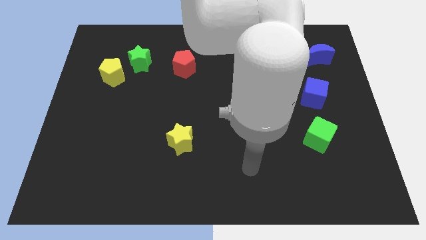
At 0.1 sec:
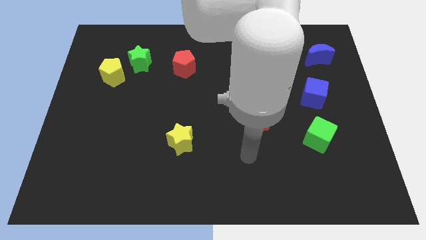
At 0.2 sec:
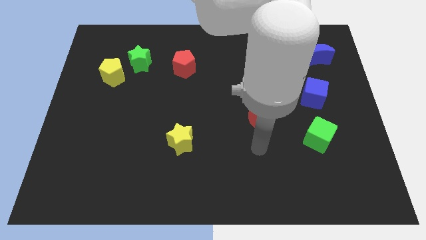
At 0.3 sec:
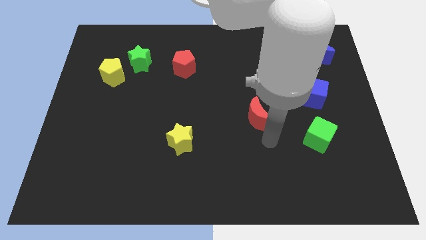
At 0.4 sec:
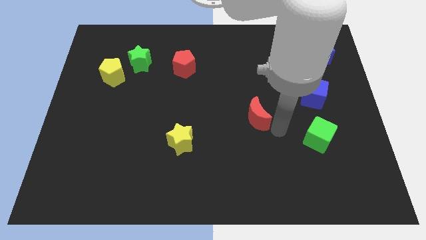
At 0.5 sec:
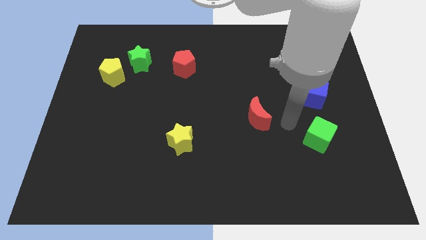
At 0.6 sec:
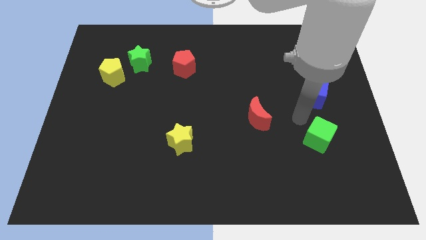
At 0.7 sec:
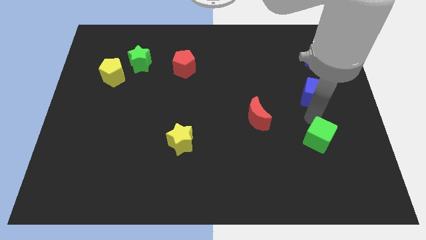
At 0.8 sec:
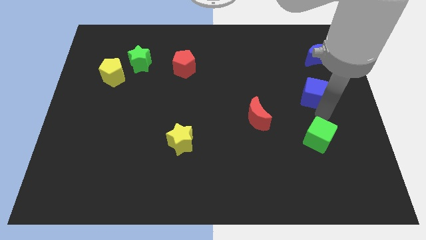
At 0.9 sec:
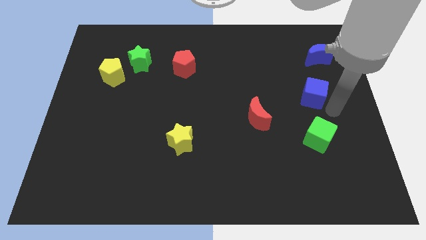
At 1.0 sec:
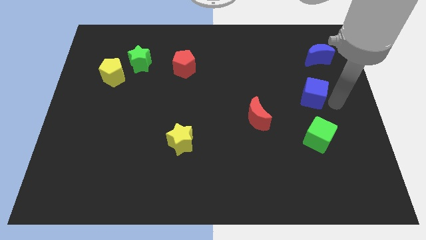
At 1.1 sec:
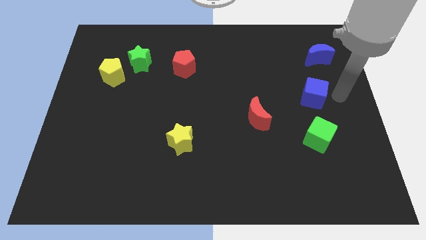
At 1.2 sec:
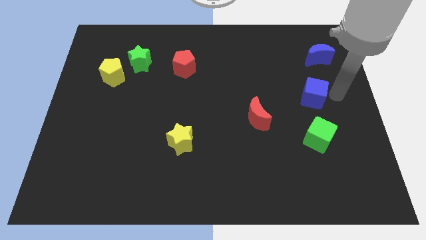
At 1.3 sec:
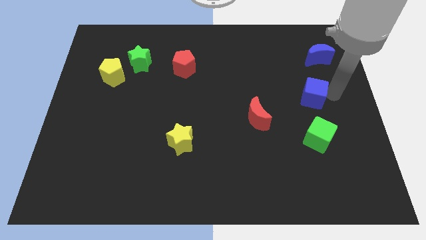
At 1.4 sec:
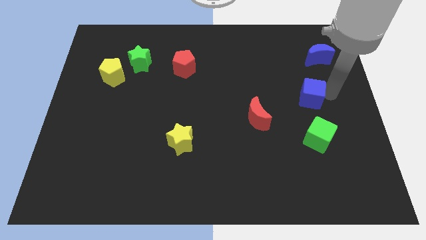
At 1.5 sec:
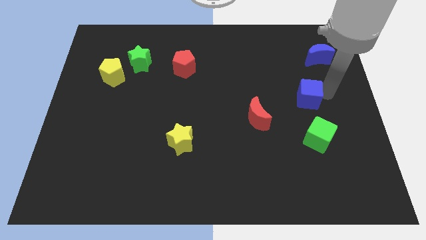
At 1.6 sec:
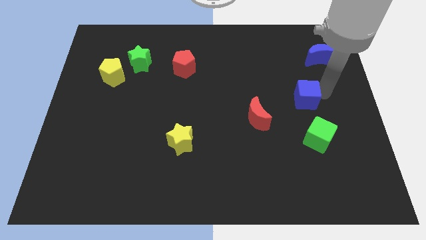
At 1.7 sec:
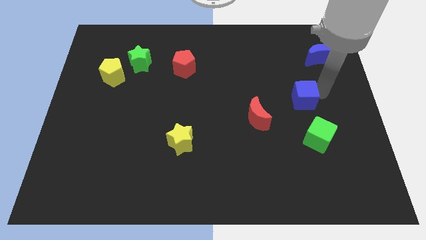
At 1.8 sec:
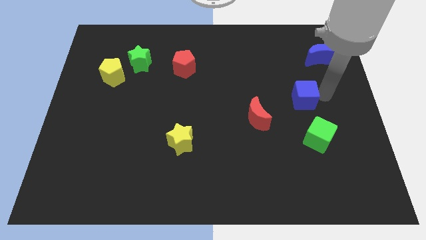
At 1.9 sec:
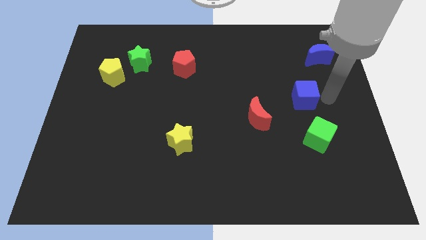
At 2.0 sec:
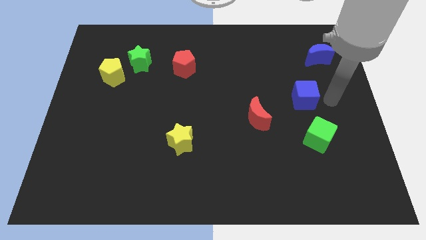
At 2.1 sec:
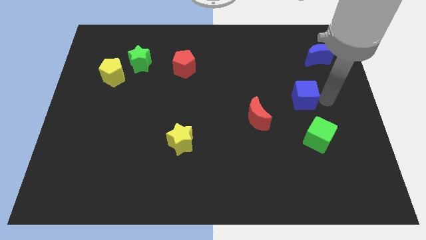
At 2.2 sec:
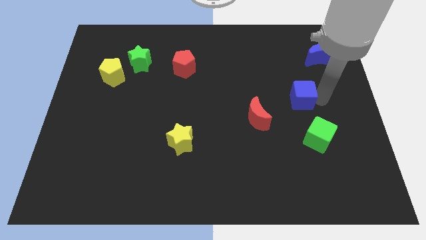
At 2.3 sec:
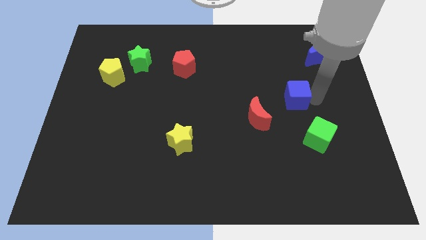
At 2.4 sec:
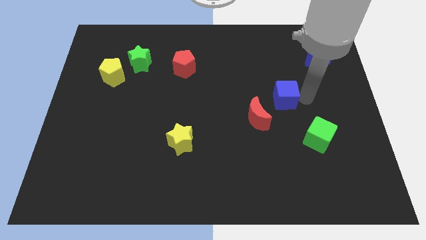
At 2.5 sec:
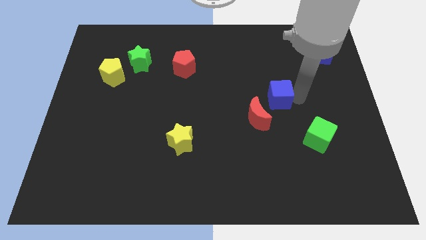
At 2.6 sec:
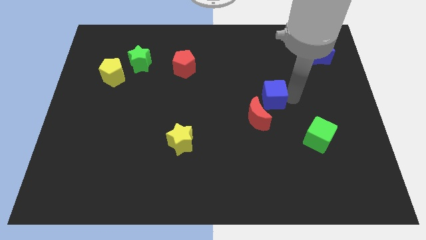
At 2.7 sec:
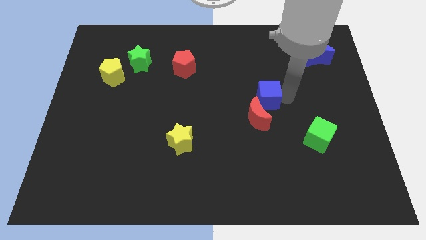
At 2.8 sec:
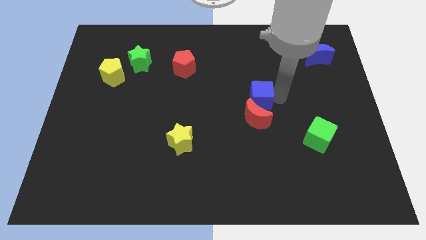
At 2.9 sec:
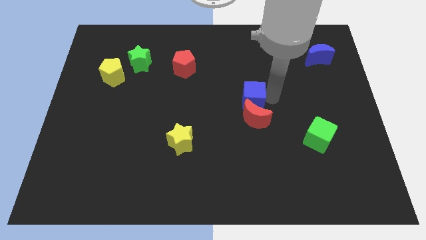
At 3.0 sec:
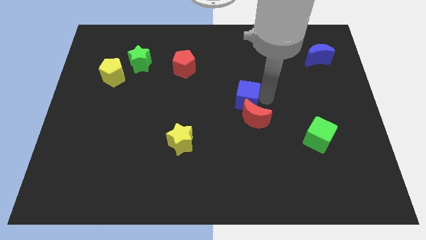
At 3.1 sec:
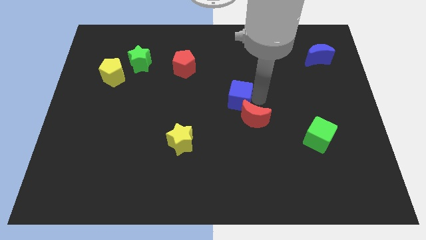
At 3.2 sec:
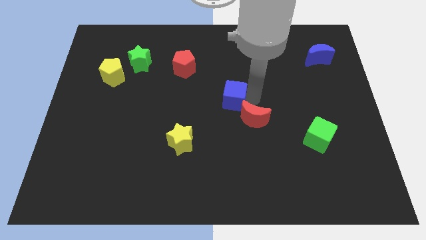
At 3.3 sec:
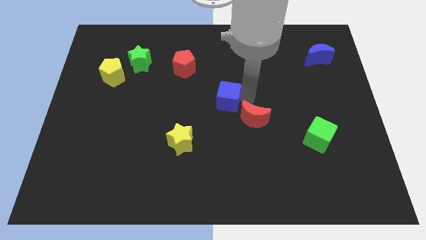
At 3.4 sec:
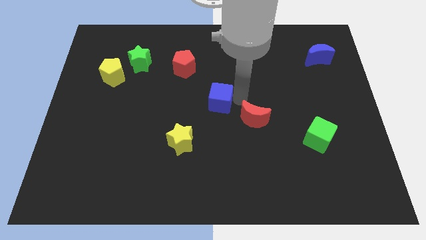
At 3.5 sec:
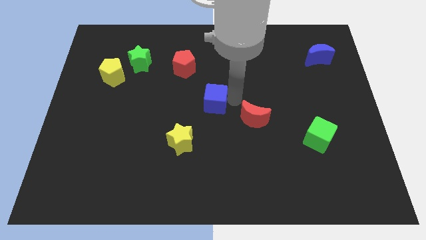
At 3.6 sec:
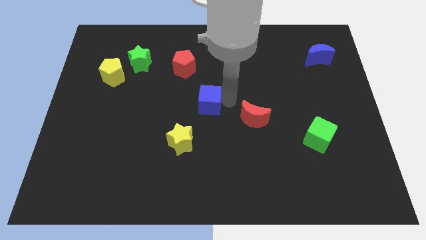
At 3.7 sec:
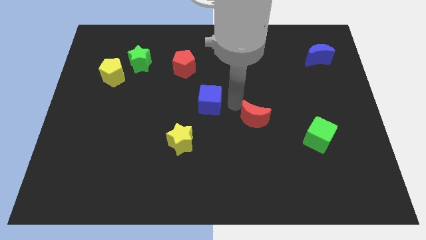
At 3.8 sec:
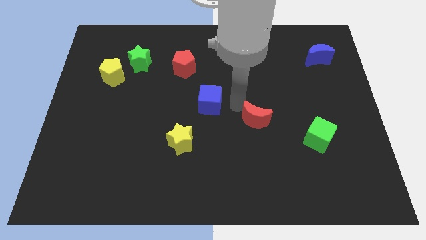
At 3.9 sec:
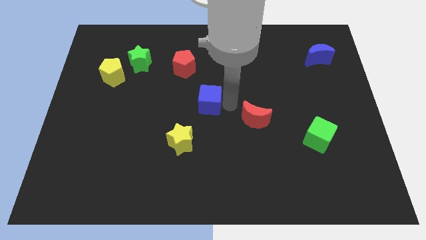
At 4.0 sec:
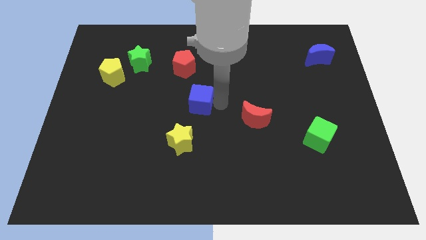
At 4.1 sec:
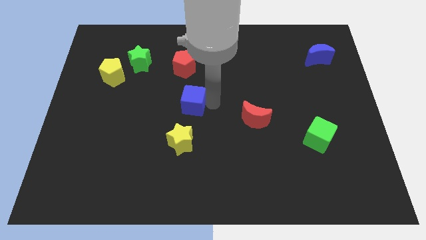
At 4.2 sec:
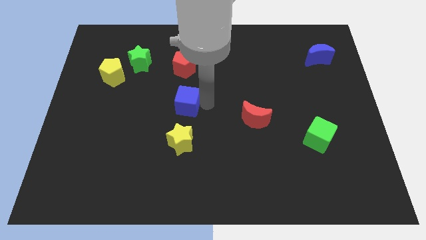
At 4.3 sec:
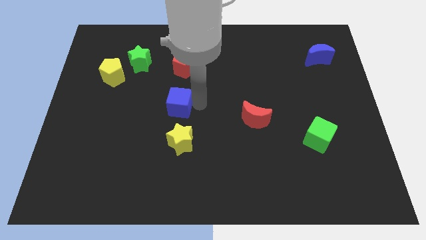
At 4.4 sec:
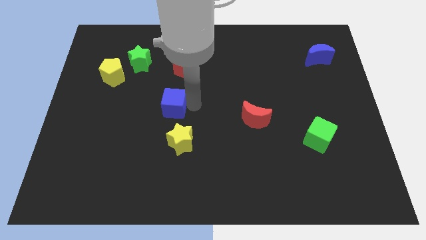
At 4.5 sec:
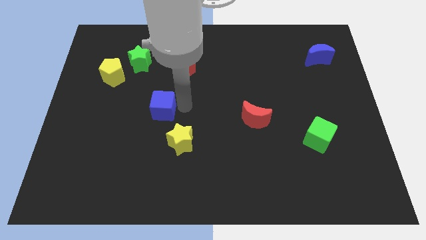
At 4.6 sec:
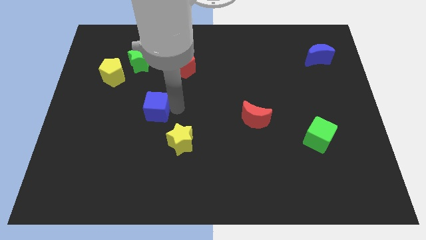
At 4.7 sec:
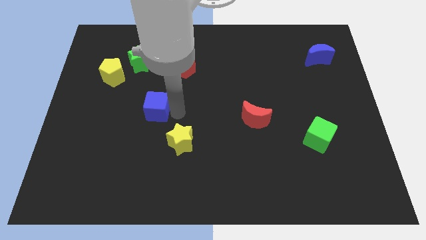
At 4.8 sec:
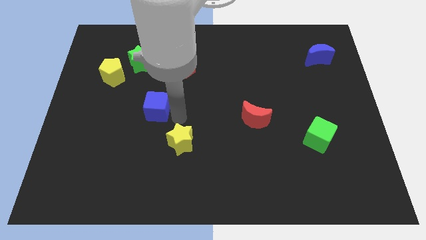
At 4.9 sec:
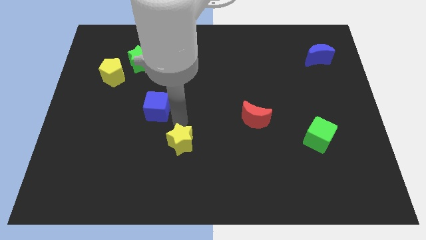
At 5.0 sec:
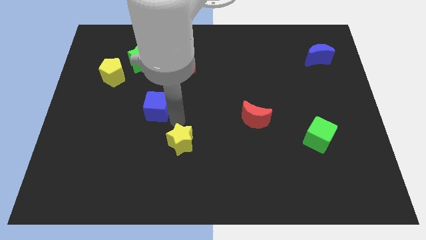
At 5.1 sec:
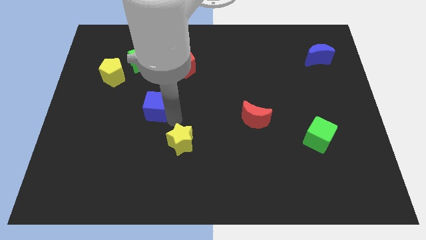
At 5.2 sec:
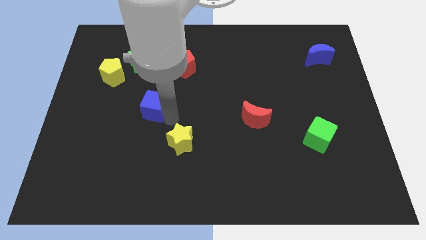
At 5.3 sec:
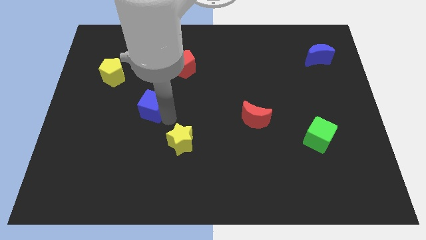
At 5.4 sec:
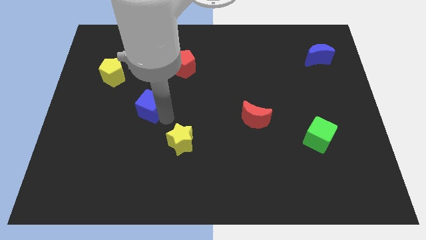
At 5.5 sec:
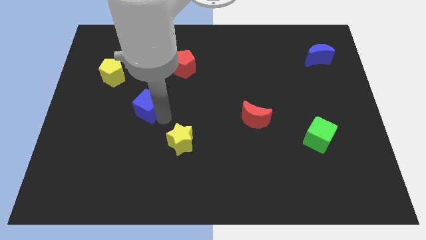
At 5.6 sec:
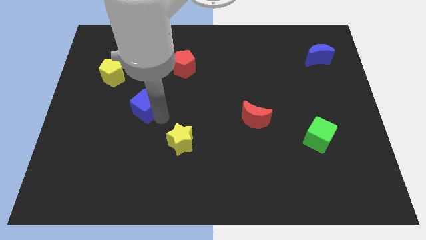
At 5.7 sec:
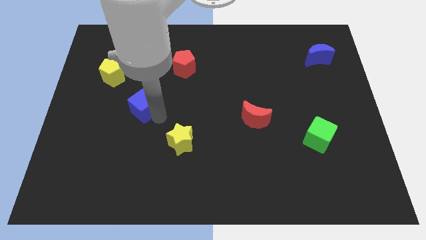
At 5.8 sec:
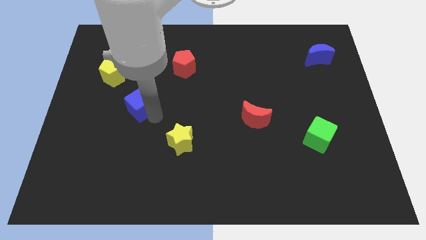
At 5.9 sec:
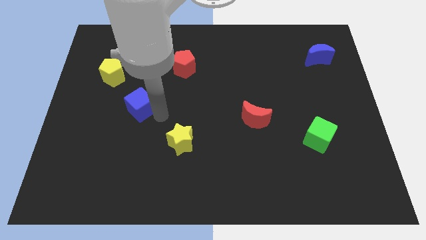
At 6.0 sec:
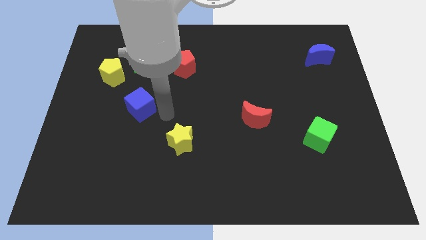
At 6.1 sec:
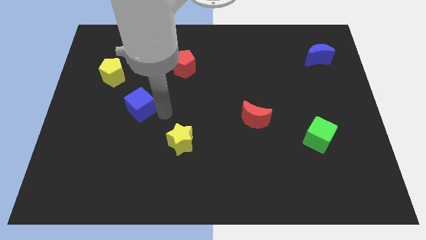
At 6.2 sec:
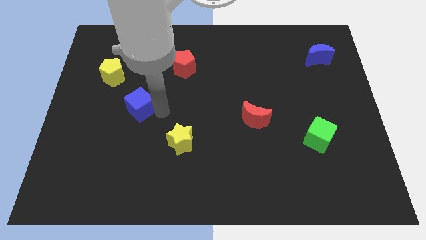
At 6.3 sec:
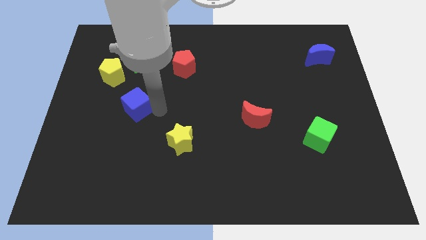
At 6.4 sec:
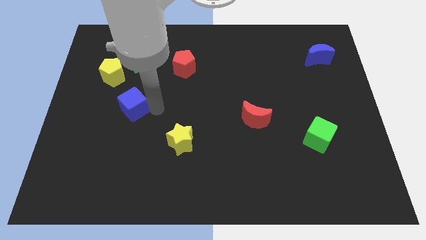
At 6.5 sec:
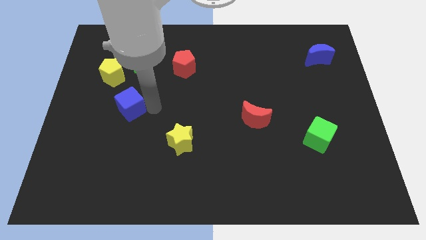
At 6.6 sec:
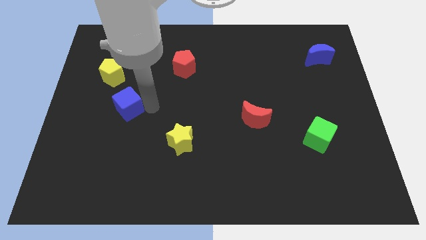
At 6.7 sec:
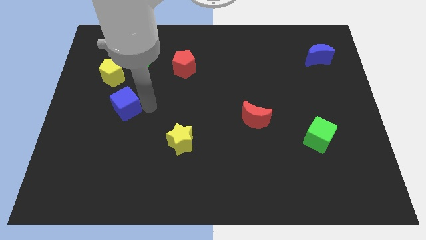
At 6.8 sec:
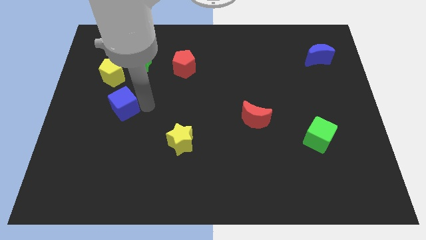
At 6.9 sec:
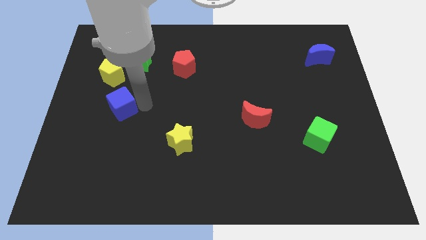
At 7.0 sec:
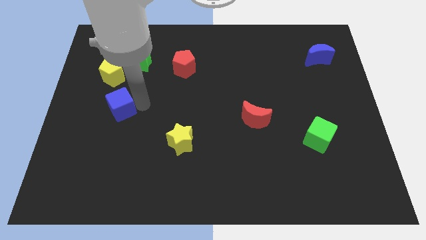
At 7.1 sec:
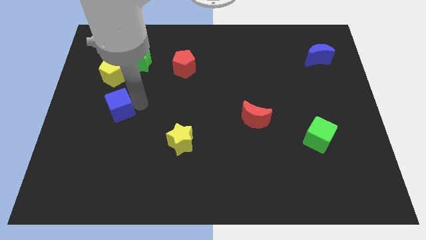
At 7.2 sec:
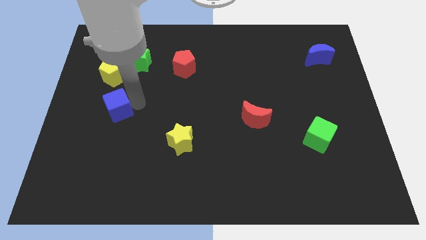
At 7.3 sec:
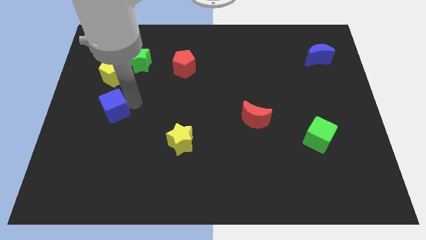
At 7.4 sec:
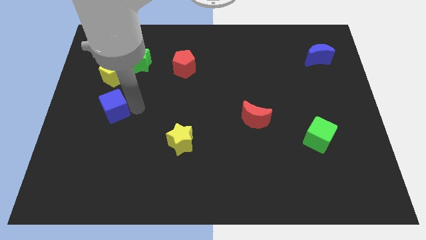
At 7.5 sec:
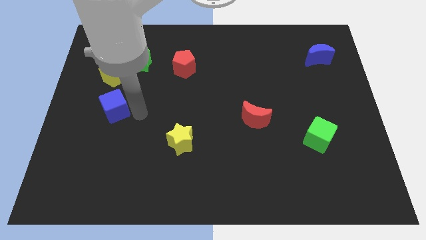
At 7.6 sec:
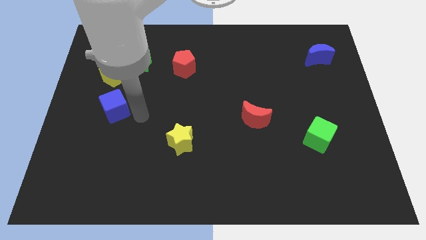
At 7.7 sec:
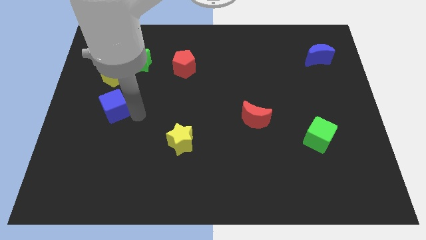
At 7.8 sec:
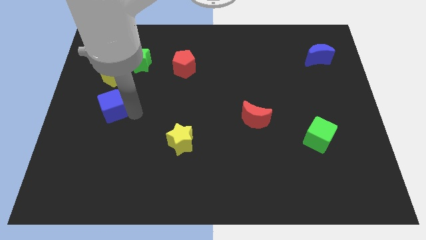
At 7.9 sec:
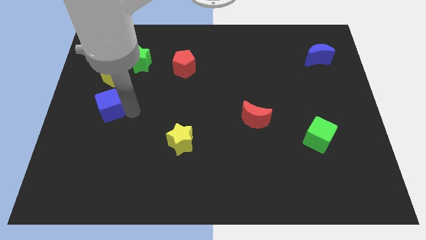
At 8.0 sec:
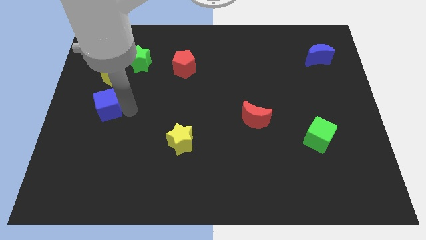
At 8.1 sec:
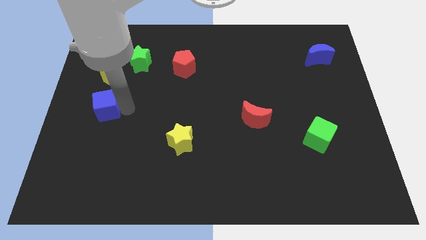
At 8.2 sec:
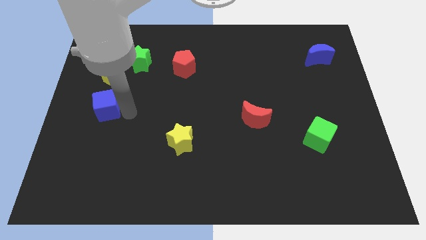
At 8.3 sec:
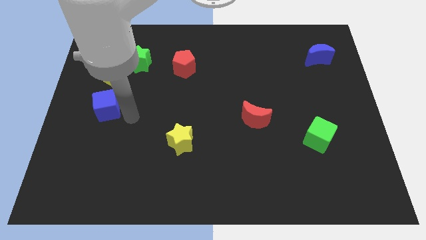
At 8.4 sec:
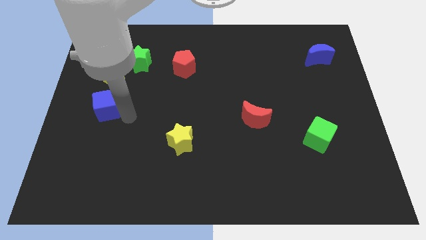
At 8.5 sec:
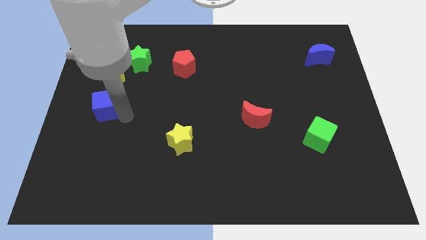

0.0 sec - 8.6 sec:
slide the blue cube to the left side
